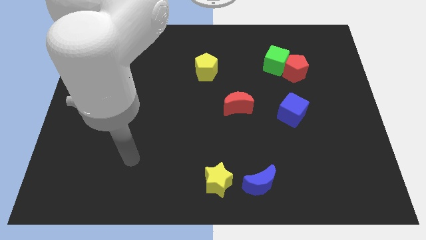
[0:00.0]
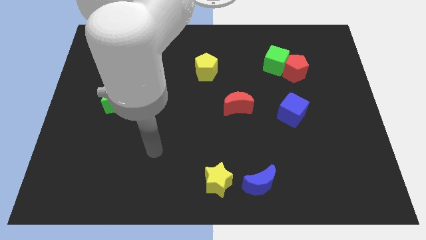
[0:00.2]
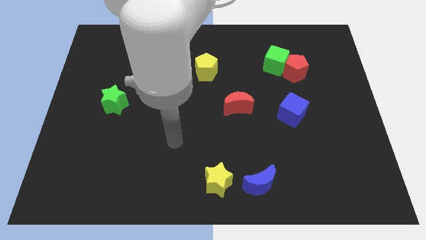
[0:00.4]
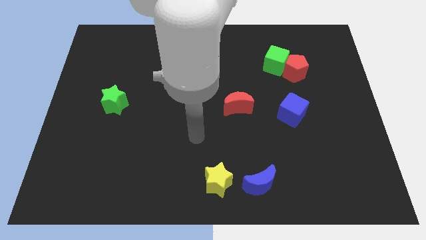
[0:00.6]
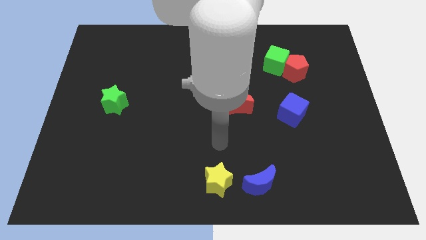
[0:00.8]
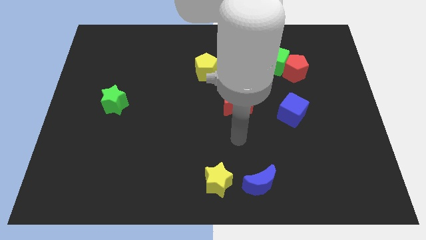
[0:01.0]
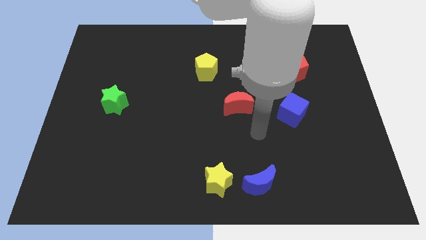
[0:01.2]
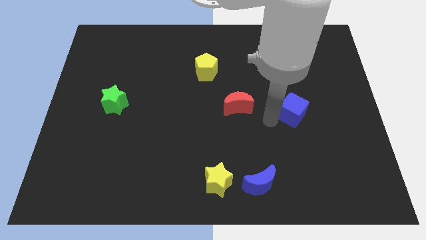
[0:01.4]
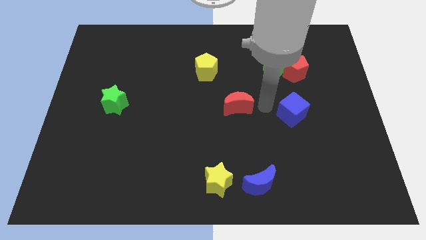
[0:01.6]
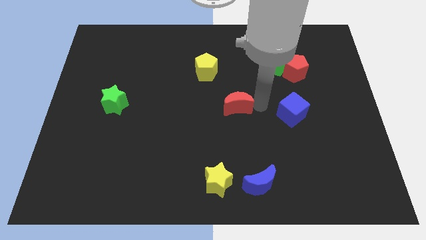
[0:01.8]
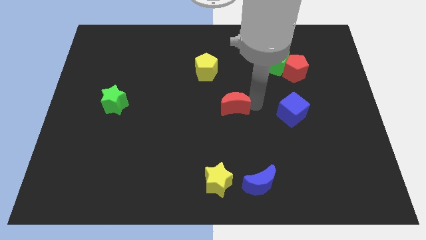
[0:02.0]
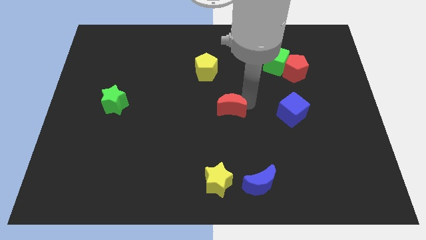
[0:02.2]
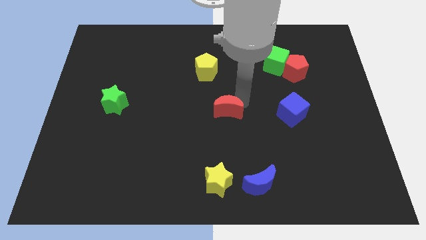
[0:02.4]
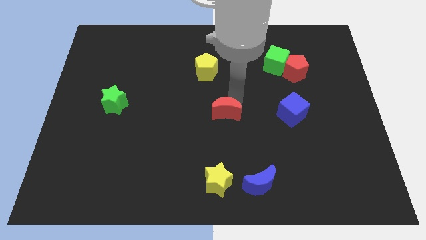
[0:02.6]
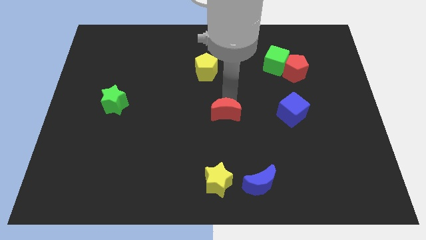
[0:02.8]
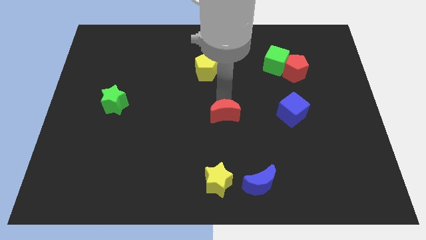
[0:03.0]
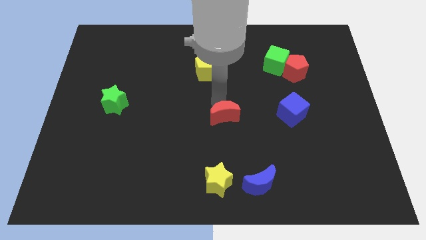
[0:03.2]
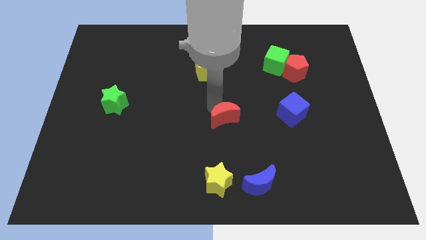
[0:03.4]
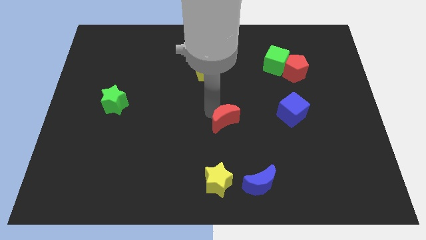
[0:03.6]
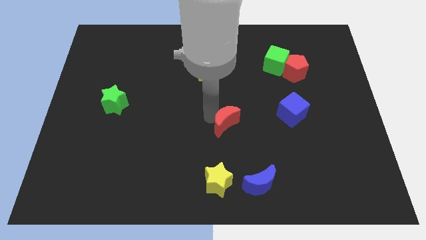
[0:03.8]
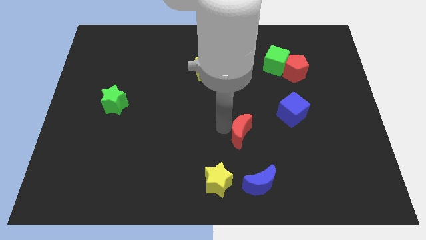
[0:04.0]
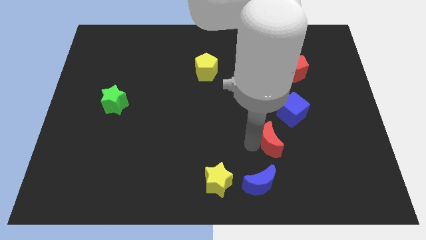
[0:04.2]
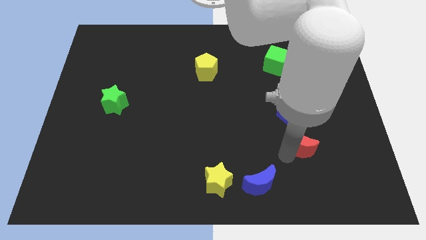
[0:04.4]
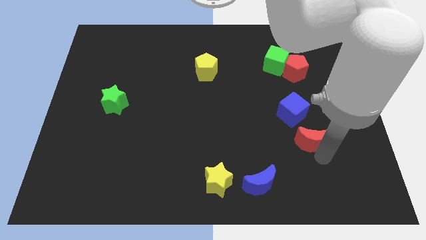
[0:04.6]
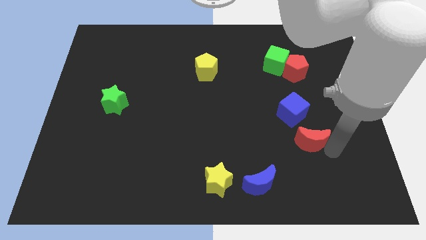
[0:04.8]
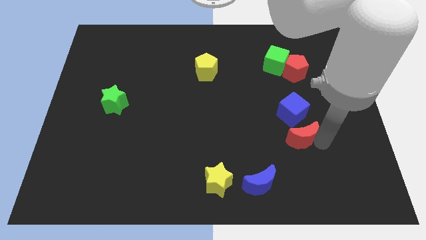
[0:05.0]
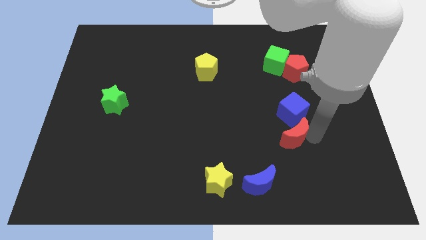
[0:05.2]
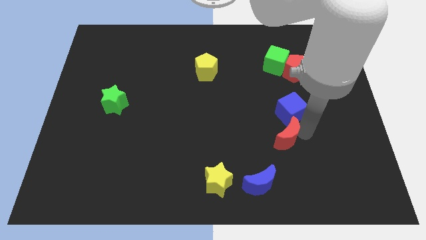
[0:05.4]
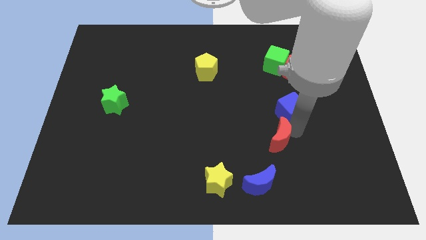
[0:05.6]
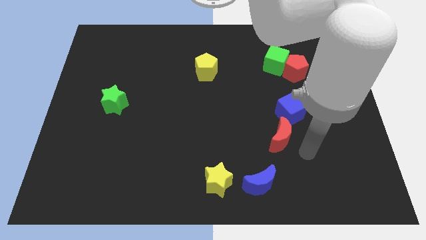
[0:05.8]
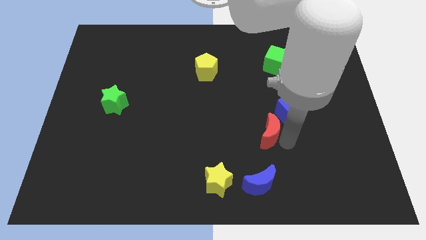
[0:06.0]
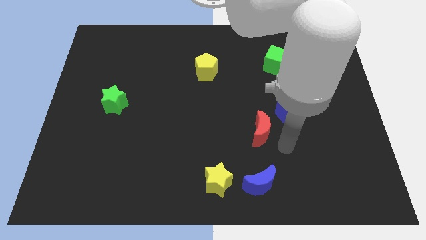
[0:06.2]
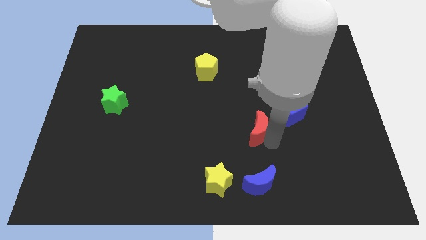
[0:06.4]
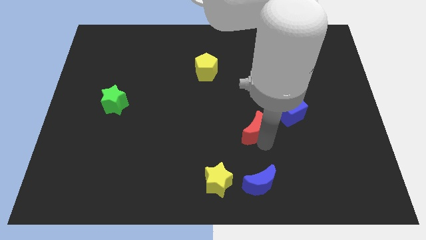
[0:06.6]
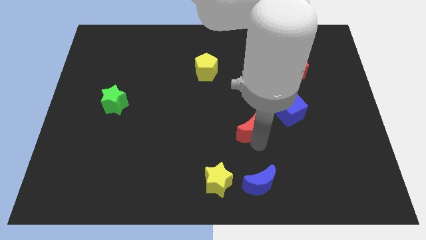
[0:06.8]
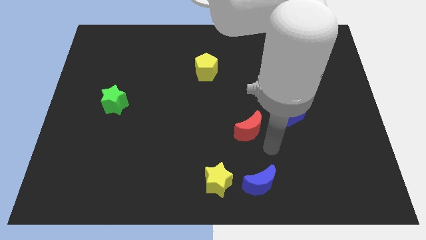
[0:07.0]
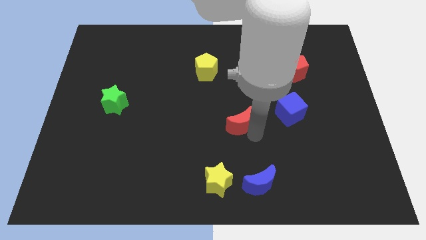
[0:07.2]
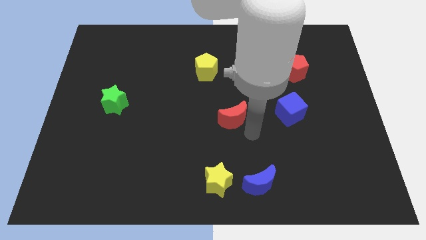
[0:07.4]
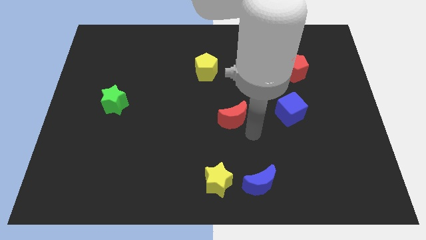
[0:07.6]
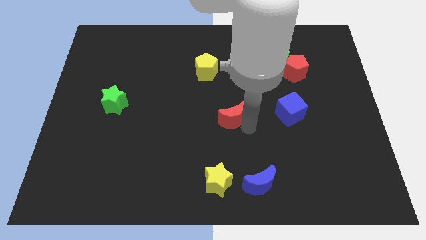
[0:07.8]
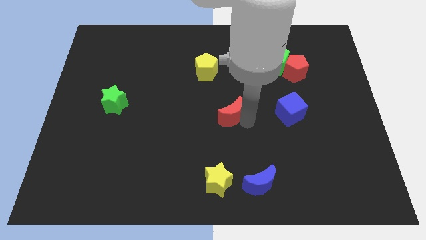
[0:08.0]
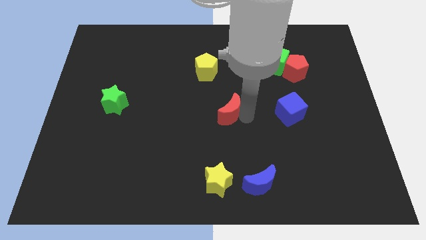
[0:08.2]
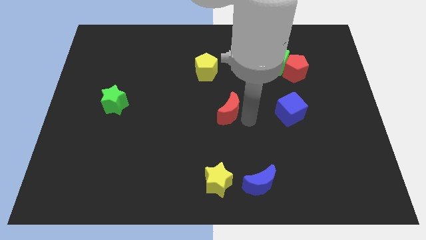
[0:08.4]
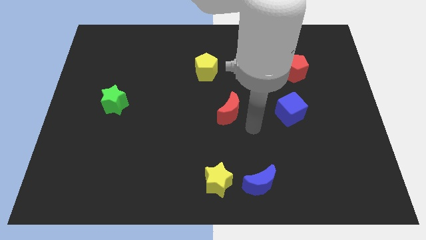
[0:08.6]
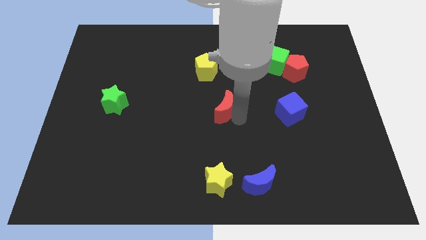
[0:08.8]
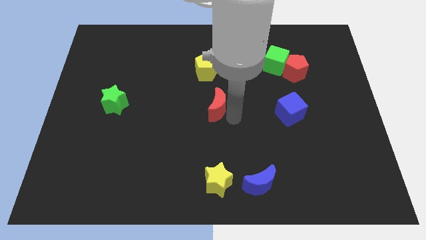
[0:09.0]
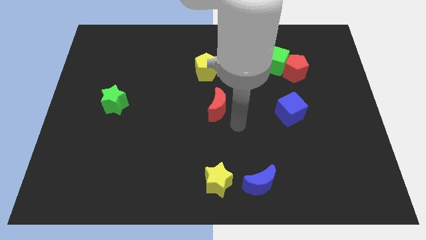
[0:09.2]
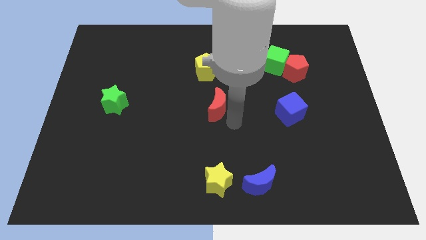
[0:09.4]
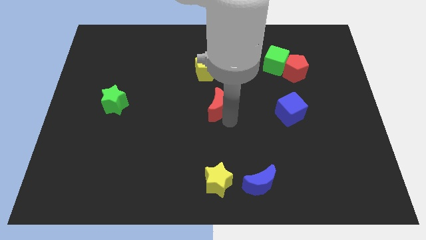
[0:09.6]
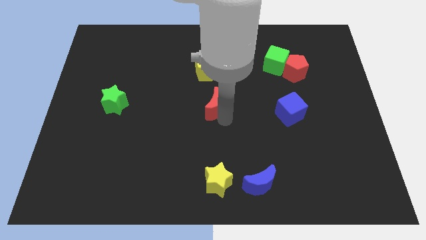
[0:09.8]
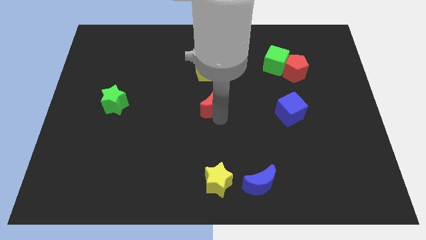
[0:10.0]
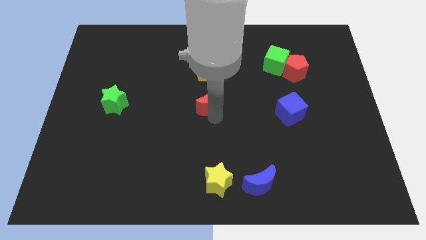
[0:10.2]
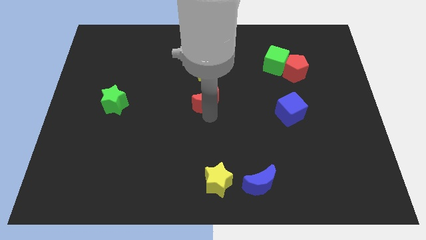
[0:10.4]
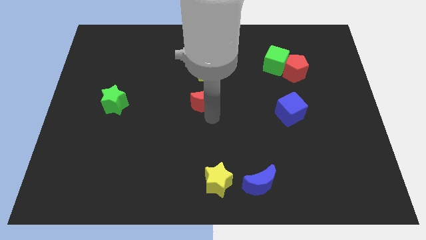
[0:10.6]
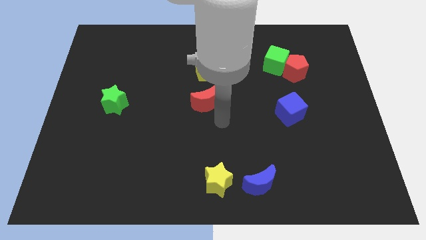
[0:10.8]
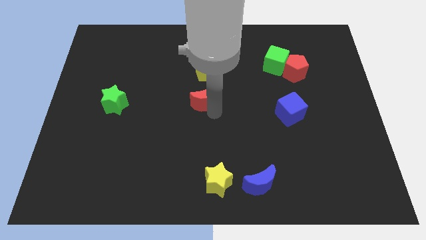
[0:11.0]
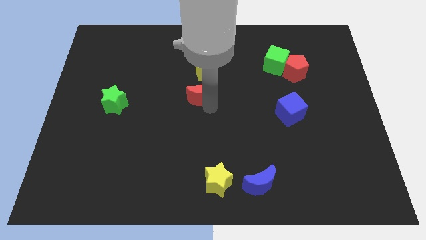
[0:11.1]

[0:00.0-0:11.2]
slightly slide the red moon up and to the left

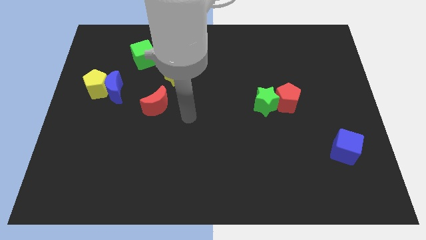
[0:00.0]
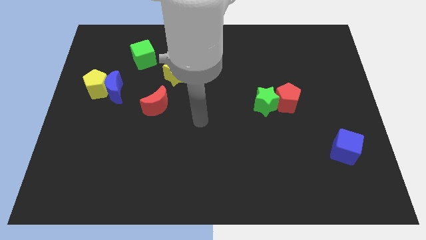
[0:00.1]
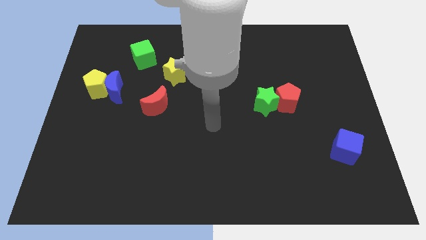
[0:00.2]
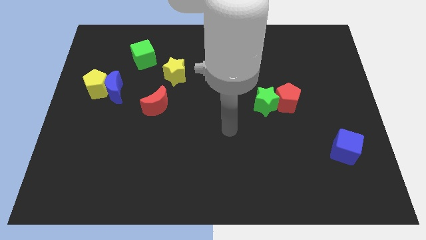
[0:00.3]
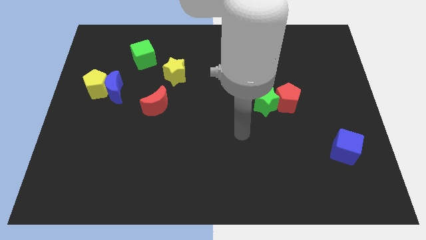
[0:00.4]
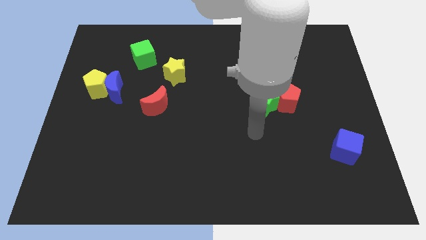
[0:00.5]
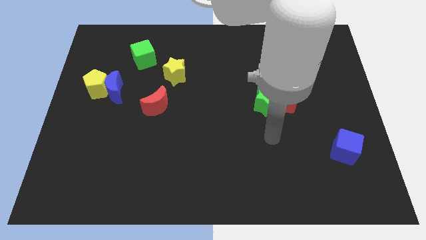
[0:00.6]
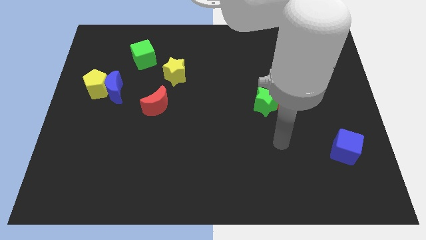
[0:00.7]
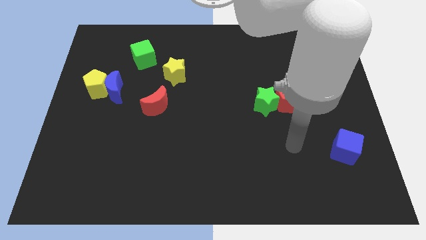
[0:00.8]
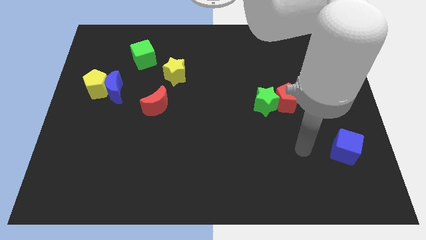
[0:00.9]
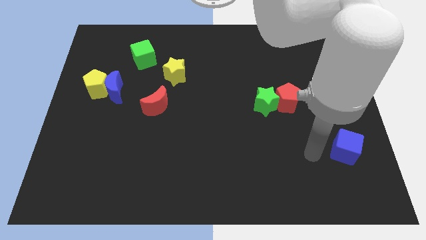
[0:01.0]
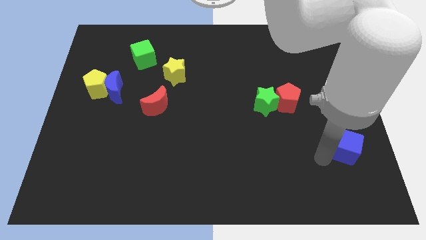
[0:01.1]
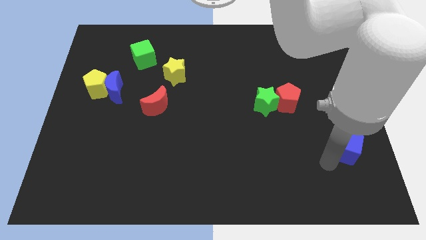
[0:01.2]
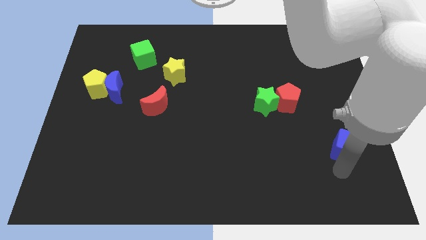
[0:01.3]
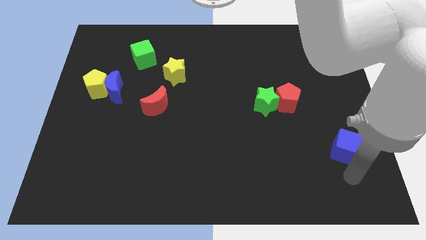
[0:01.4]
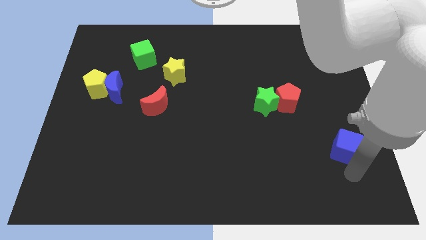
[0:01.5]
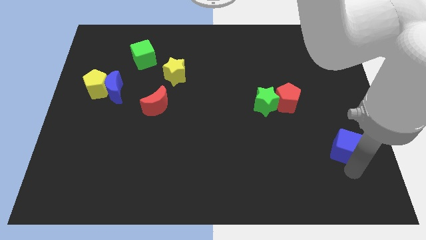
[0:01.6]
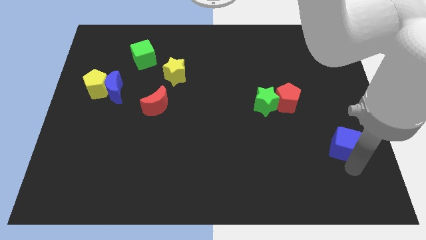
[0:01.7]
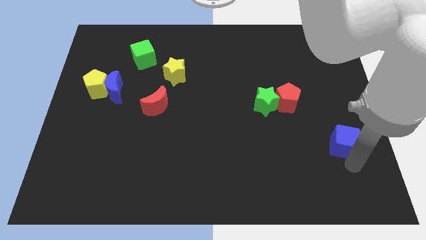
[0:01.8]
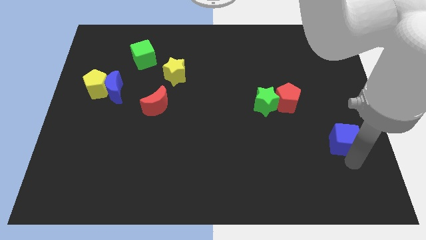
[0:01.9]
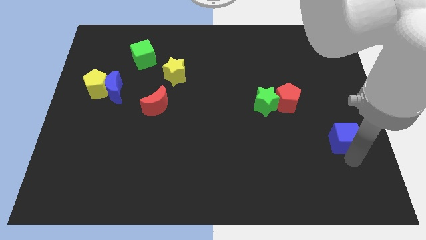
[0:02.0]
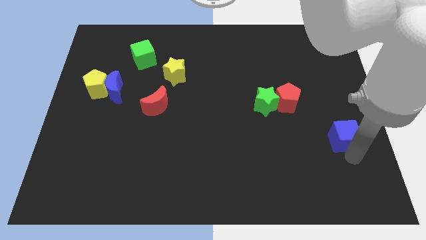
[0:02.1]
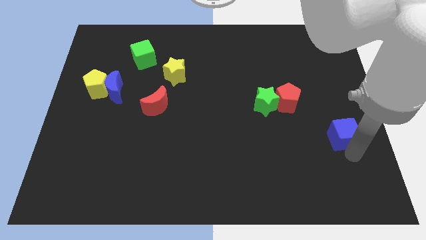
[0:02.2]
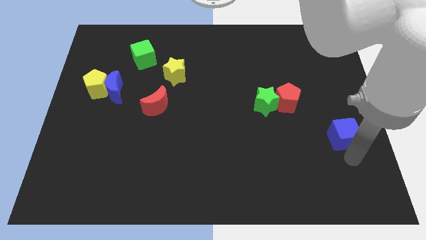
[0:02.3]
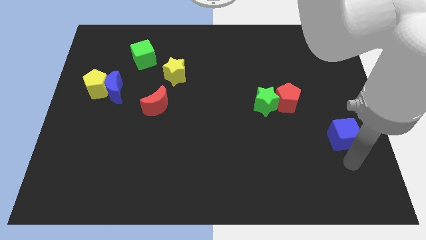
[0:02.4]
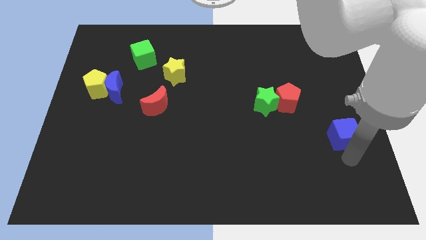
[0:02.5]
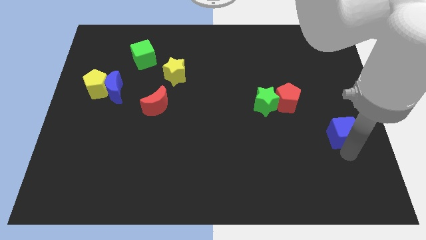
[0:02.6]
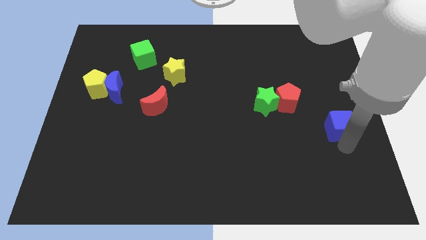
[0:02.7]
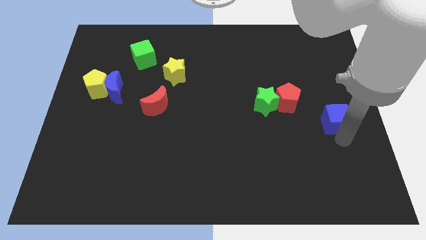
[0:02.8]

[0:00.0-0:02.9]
slide the blue cube up a little
